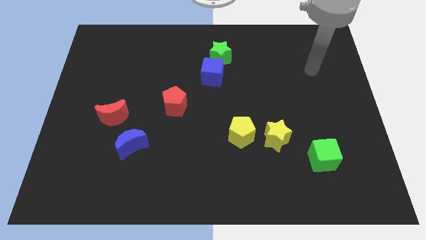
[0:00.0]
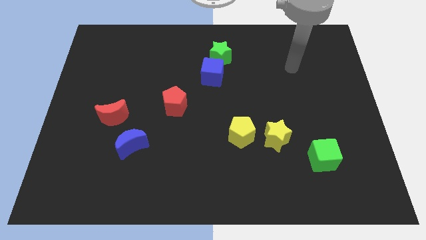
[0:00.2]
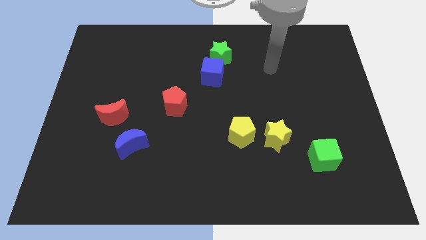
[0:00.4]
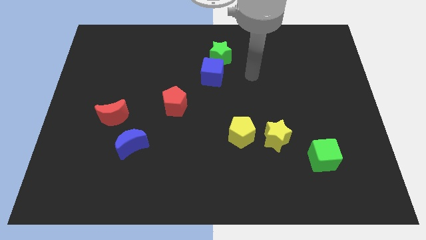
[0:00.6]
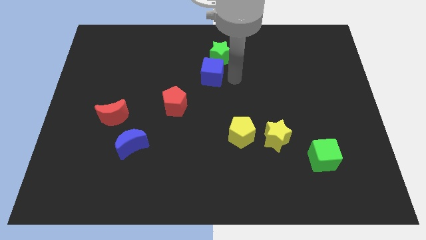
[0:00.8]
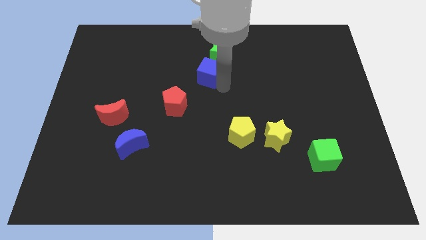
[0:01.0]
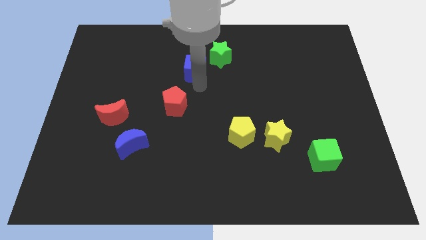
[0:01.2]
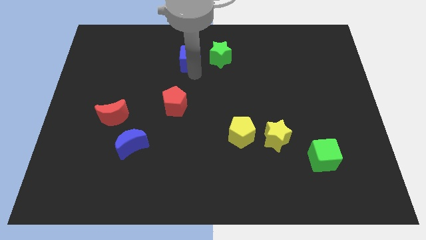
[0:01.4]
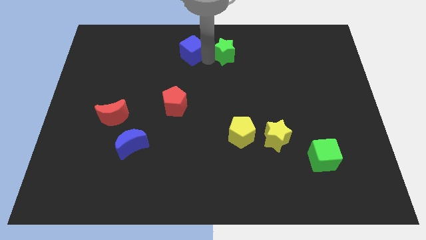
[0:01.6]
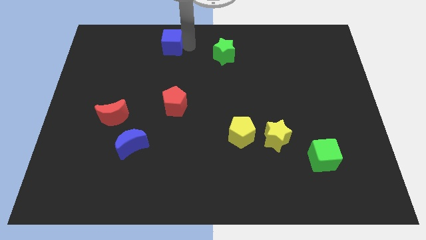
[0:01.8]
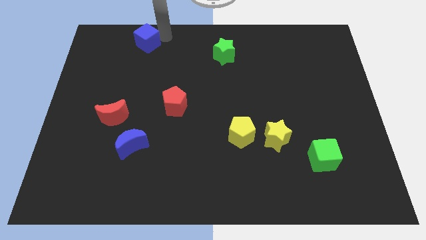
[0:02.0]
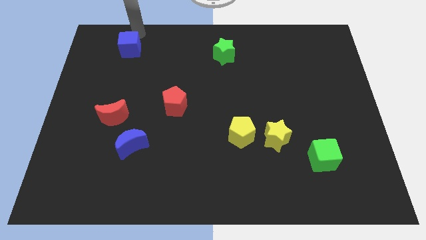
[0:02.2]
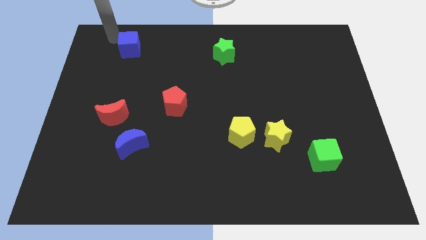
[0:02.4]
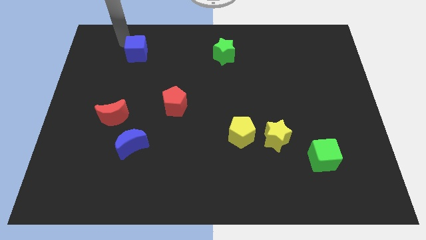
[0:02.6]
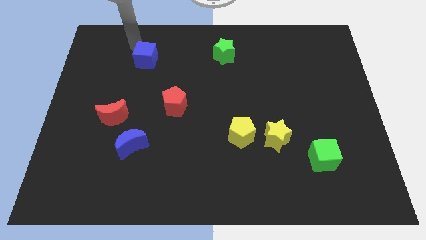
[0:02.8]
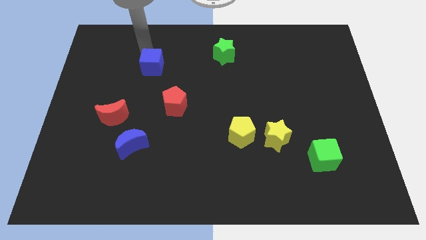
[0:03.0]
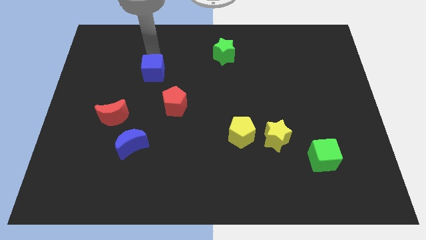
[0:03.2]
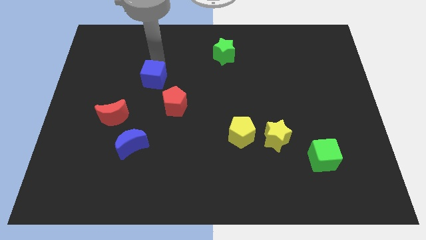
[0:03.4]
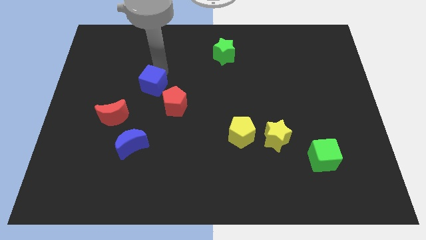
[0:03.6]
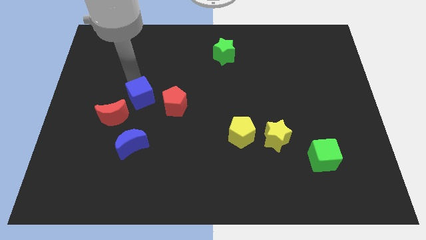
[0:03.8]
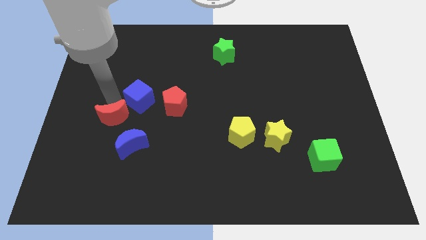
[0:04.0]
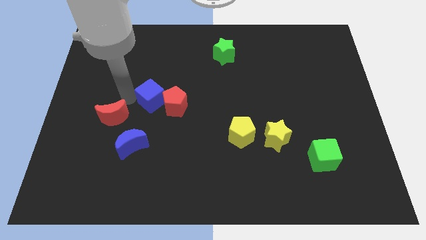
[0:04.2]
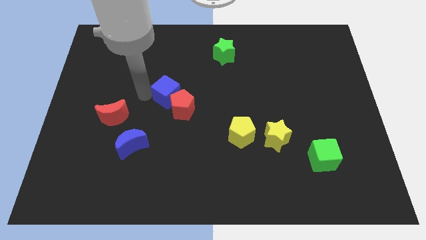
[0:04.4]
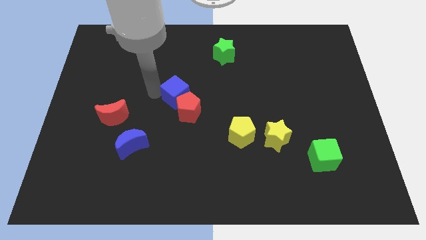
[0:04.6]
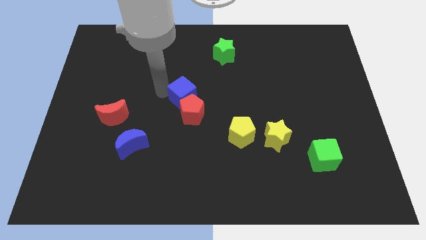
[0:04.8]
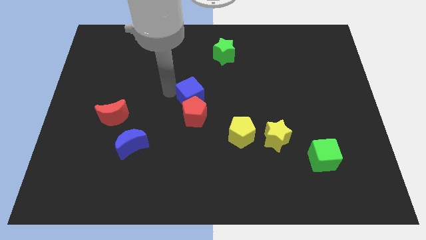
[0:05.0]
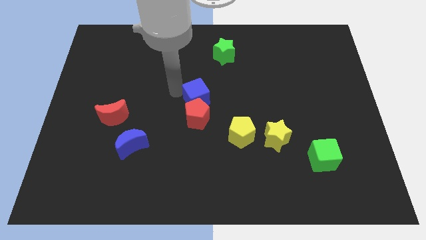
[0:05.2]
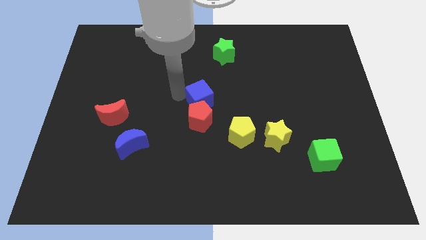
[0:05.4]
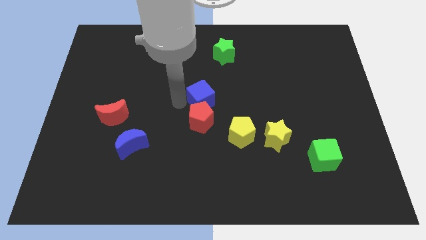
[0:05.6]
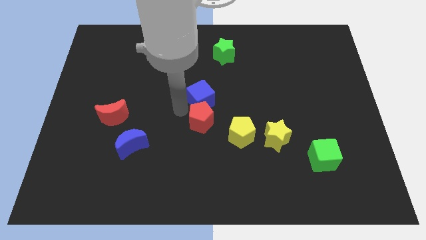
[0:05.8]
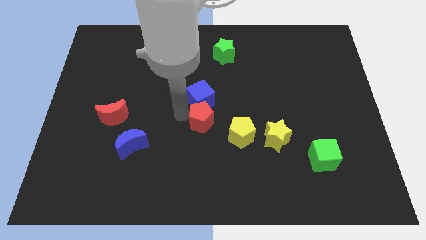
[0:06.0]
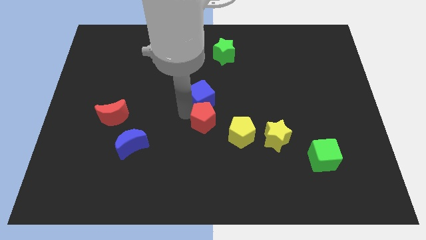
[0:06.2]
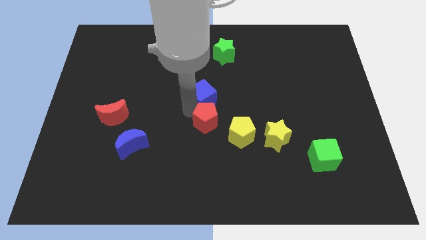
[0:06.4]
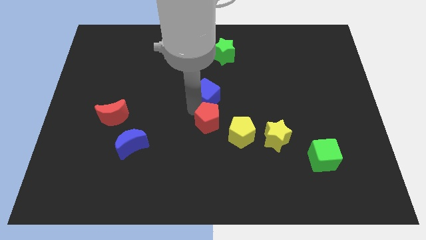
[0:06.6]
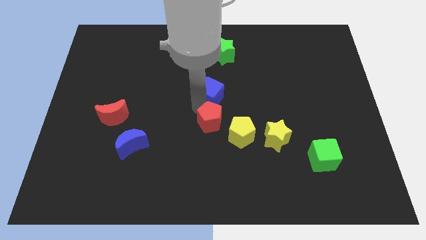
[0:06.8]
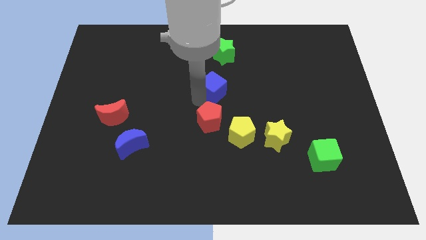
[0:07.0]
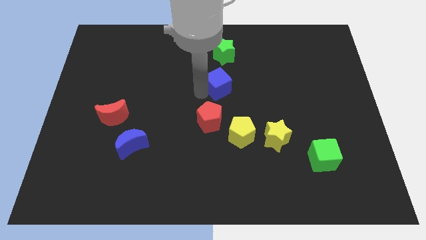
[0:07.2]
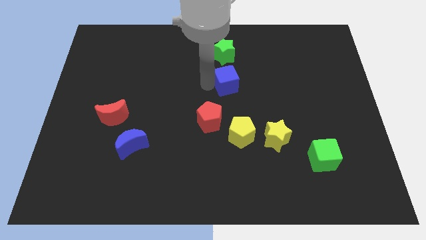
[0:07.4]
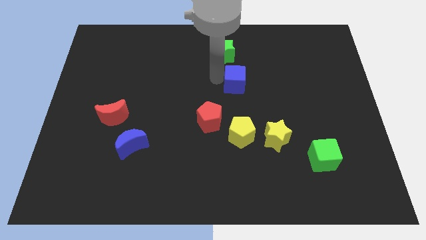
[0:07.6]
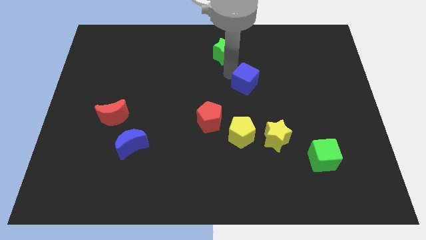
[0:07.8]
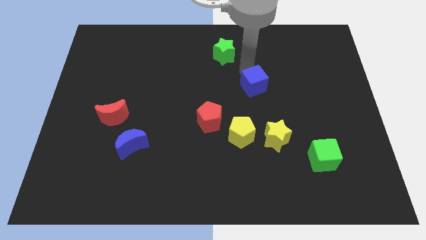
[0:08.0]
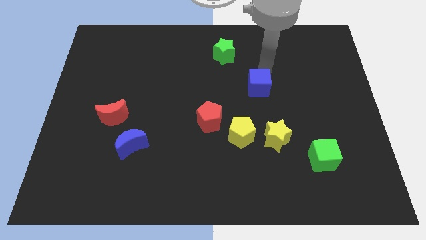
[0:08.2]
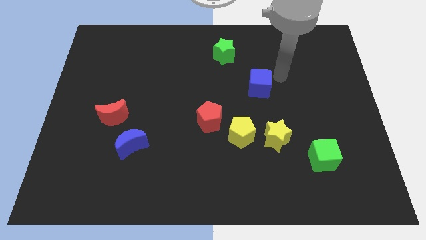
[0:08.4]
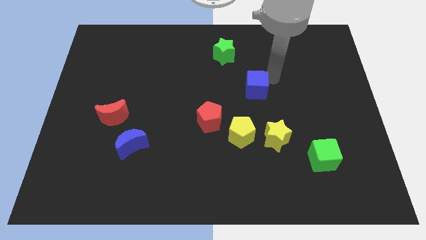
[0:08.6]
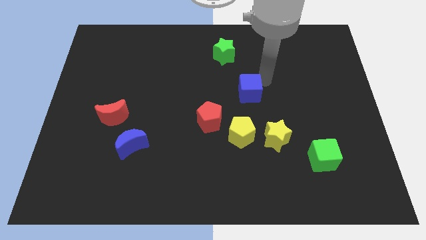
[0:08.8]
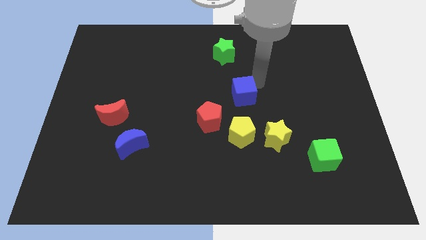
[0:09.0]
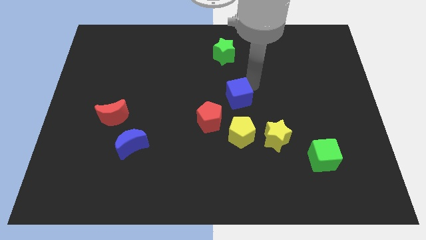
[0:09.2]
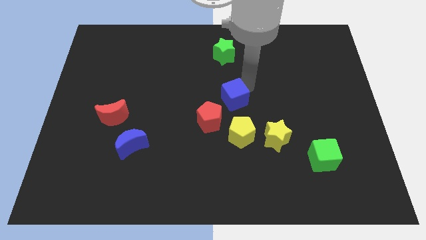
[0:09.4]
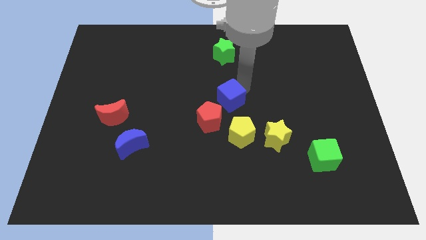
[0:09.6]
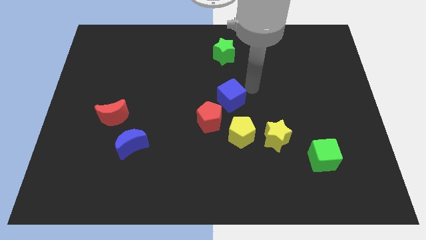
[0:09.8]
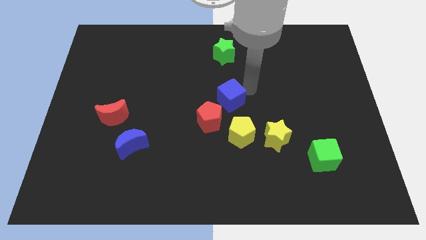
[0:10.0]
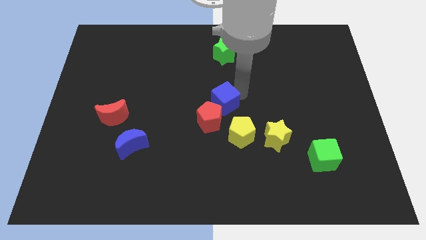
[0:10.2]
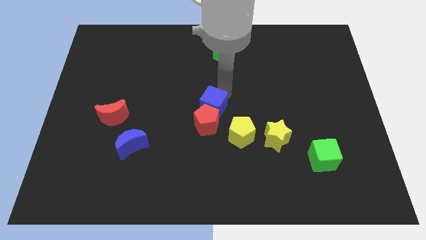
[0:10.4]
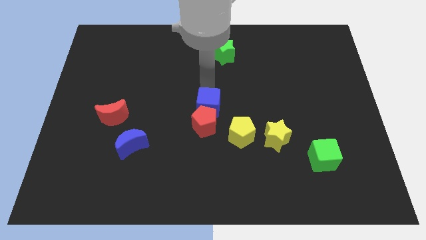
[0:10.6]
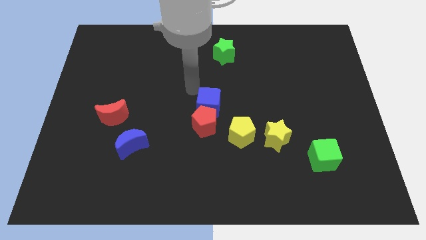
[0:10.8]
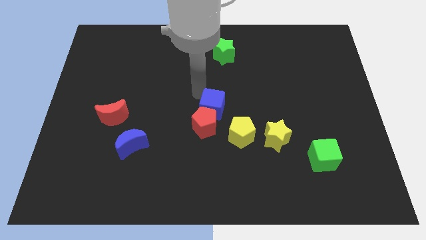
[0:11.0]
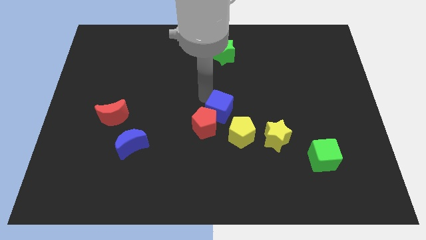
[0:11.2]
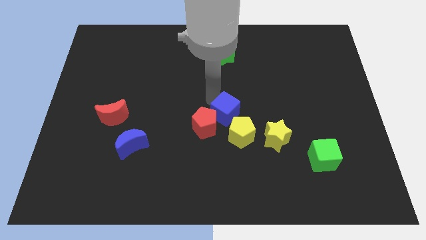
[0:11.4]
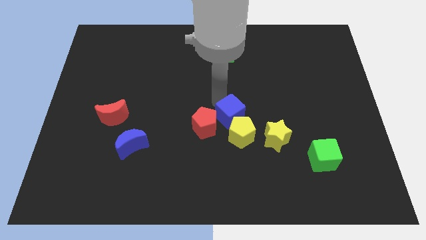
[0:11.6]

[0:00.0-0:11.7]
put the blue cube towards the yellow pentagon
